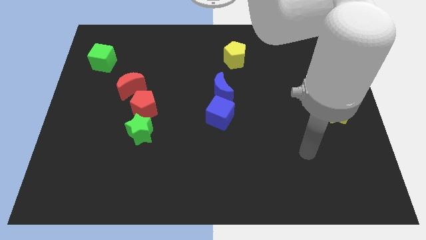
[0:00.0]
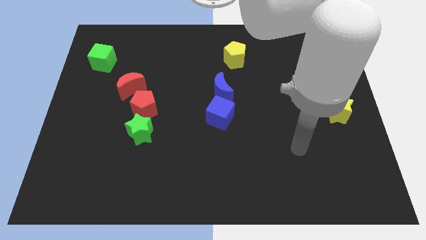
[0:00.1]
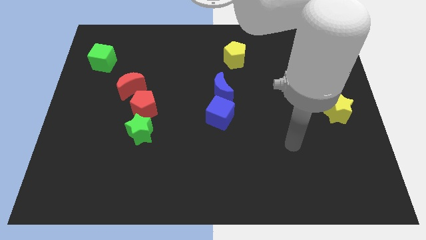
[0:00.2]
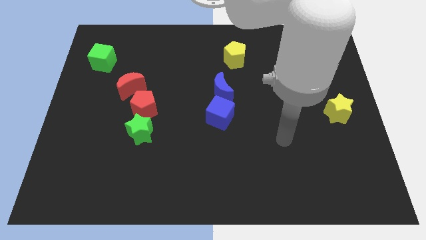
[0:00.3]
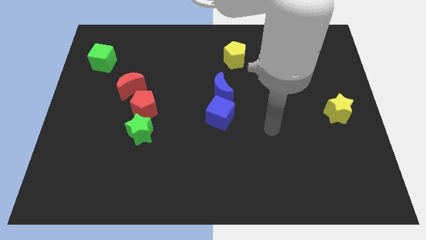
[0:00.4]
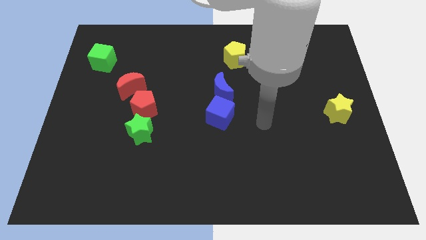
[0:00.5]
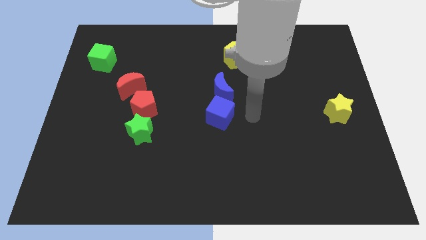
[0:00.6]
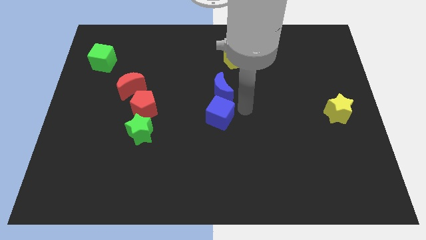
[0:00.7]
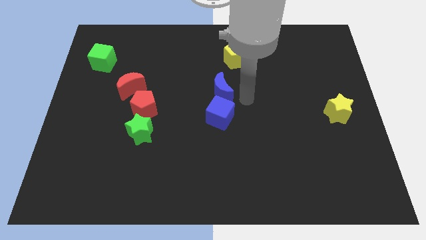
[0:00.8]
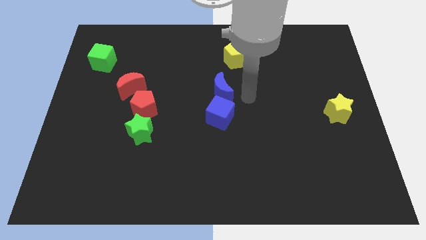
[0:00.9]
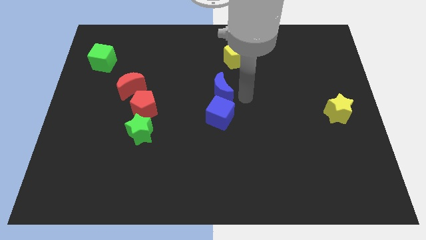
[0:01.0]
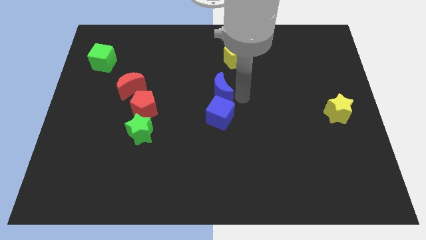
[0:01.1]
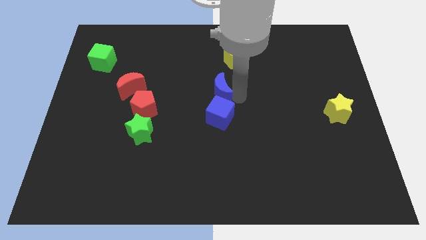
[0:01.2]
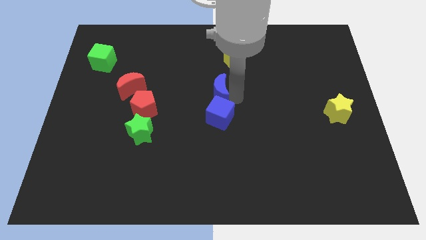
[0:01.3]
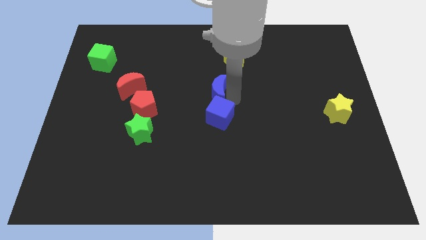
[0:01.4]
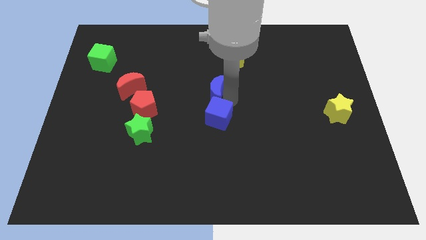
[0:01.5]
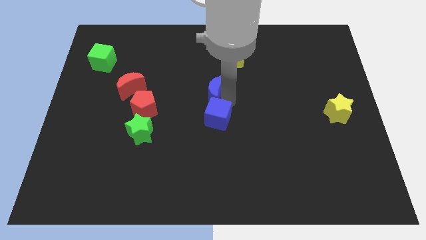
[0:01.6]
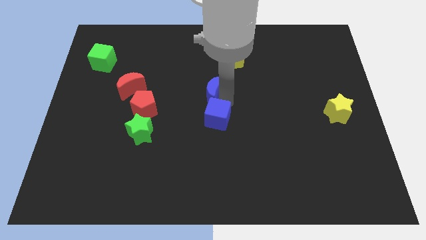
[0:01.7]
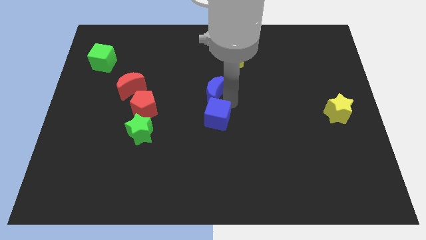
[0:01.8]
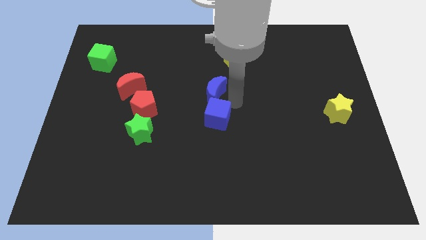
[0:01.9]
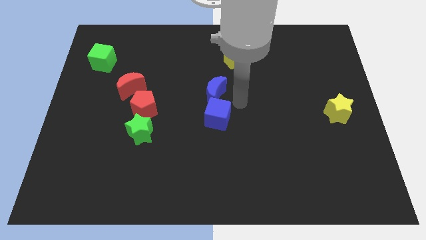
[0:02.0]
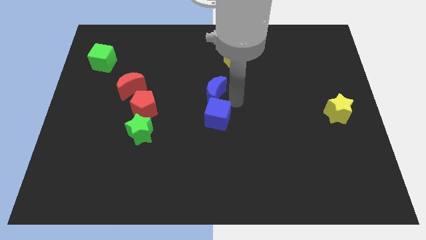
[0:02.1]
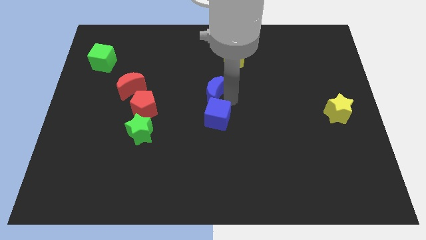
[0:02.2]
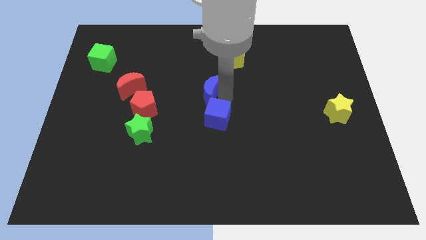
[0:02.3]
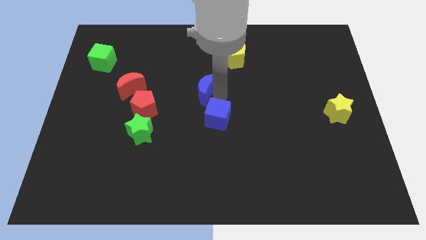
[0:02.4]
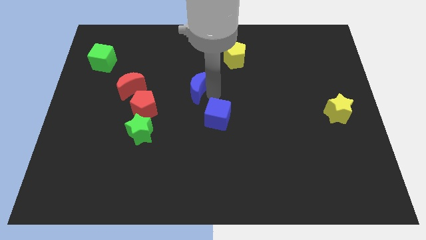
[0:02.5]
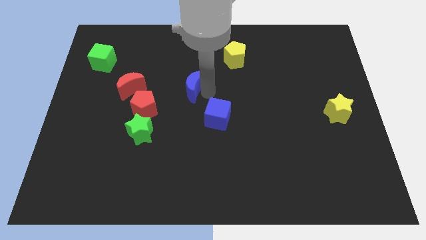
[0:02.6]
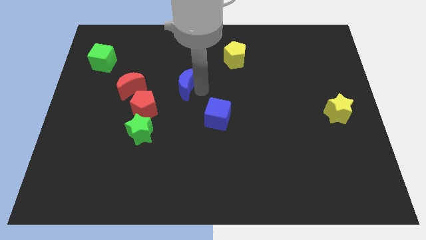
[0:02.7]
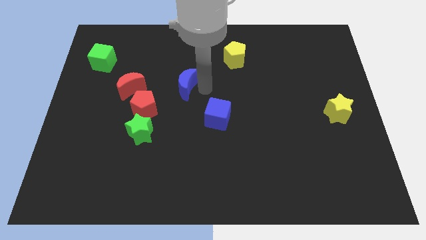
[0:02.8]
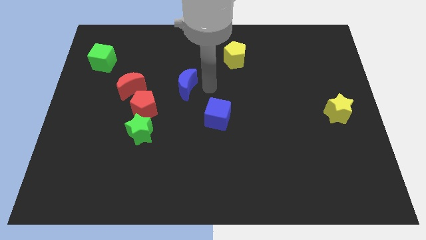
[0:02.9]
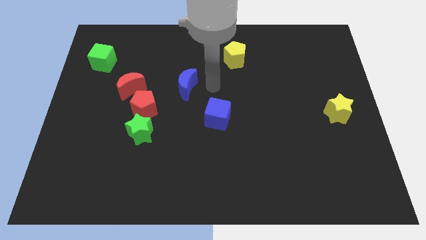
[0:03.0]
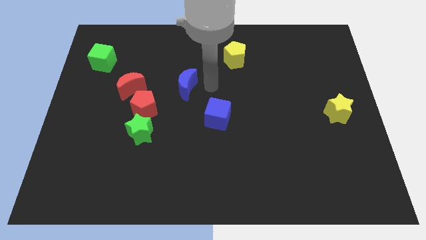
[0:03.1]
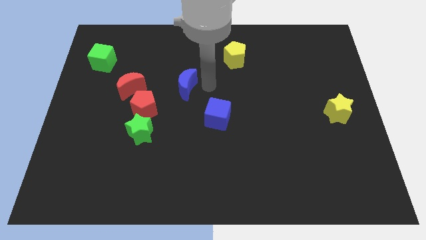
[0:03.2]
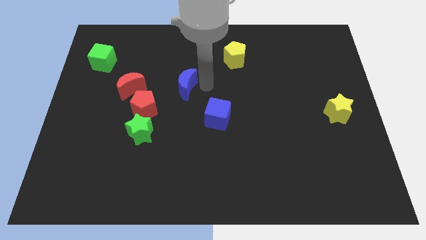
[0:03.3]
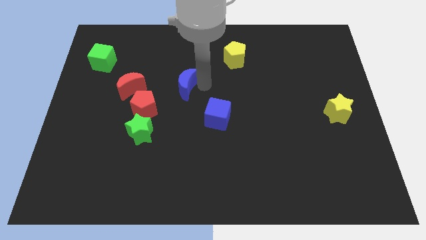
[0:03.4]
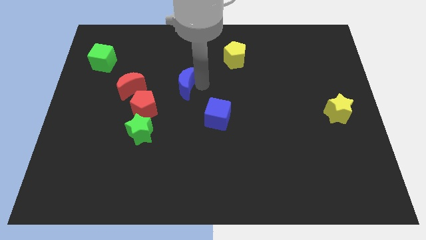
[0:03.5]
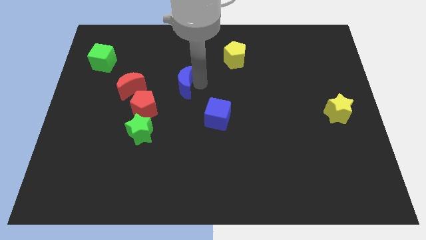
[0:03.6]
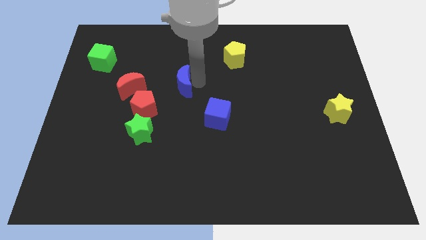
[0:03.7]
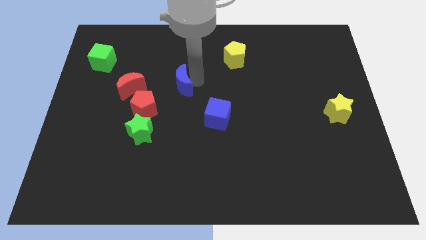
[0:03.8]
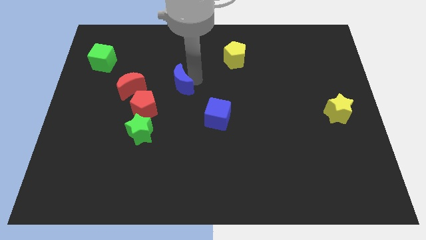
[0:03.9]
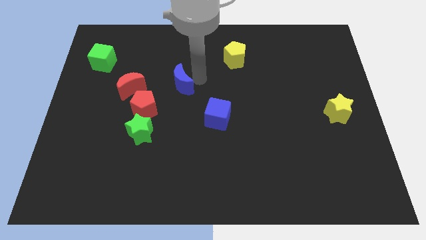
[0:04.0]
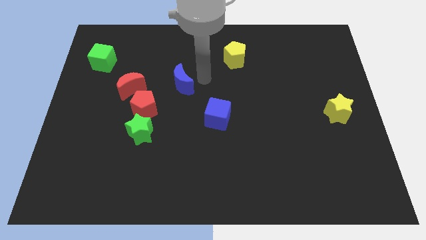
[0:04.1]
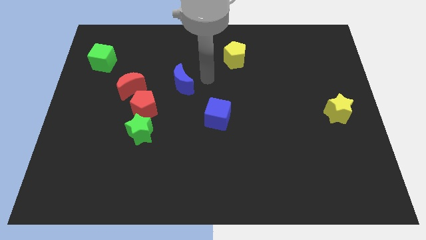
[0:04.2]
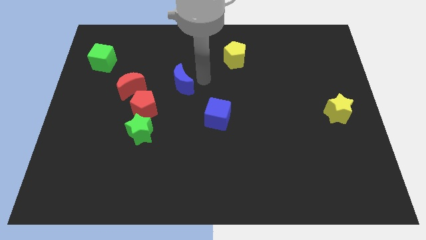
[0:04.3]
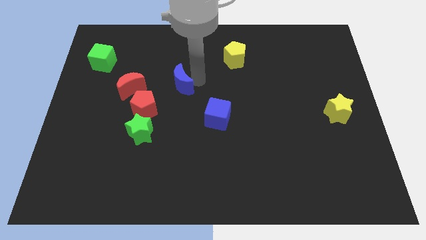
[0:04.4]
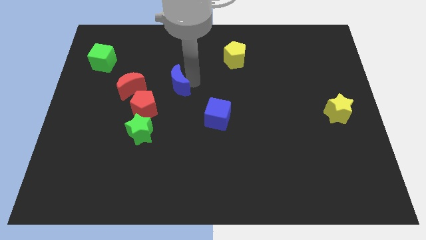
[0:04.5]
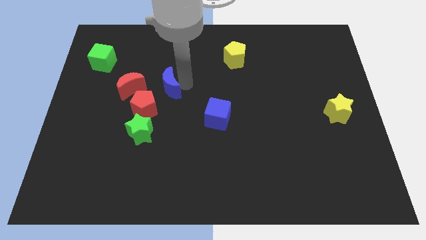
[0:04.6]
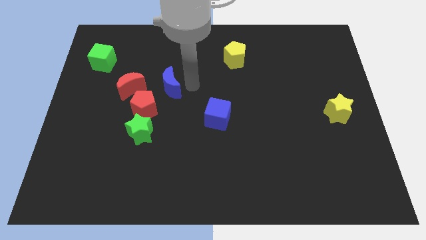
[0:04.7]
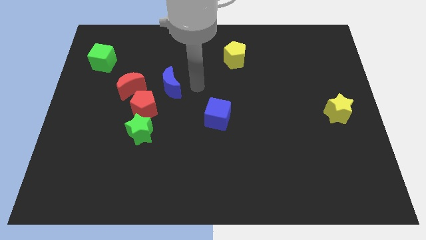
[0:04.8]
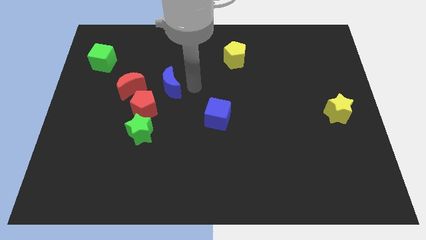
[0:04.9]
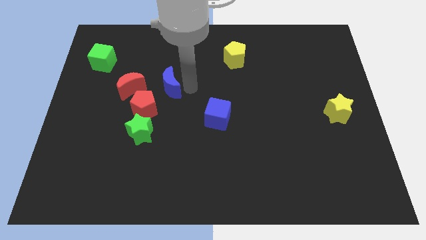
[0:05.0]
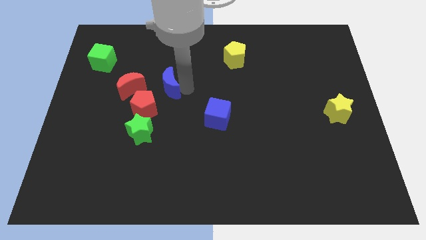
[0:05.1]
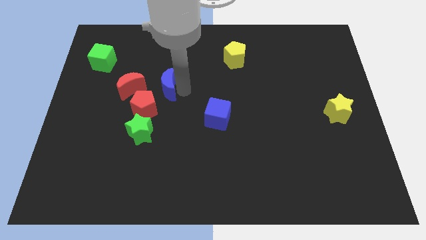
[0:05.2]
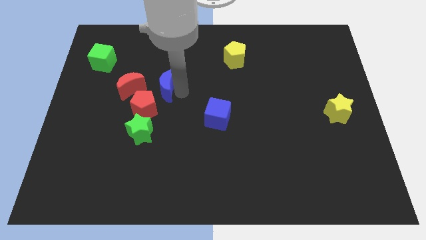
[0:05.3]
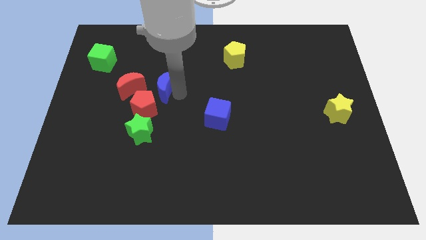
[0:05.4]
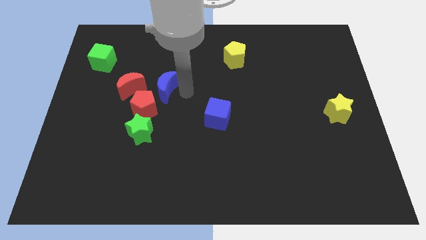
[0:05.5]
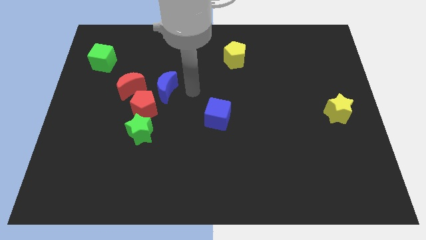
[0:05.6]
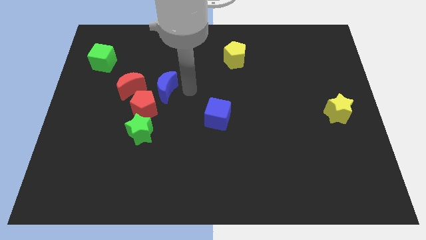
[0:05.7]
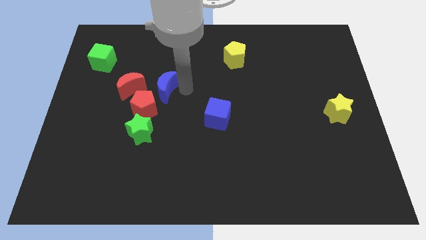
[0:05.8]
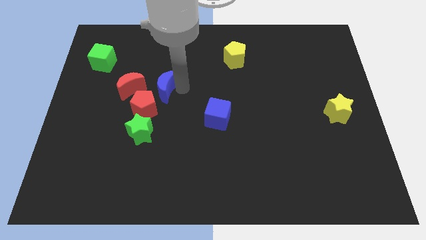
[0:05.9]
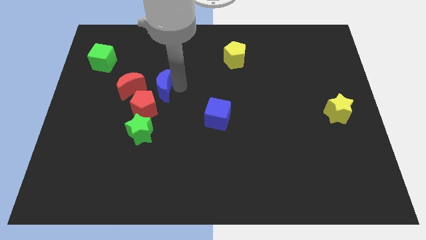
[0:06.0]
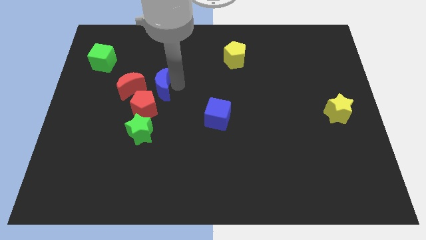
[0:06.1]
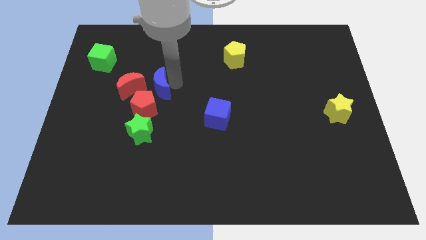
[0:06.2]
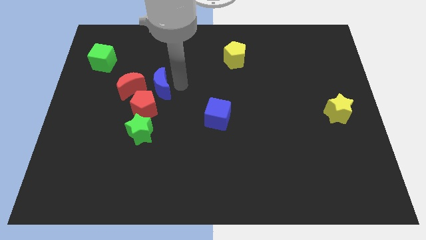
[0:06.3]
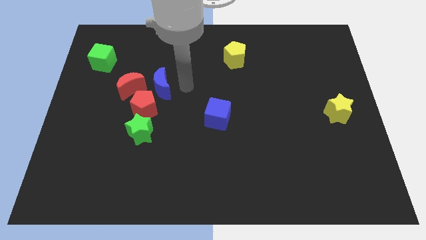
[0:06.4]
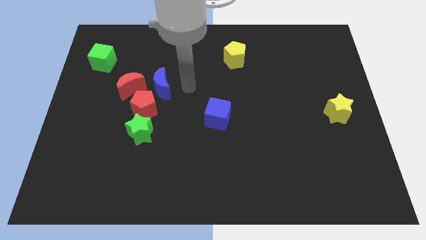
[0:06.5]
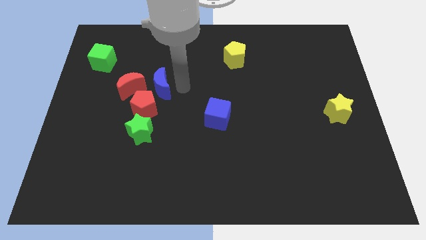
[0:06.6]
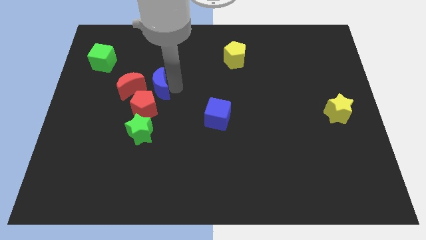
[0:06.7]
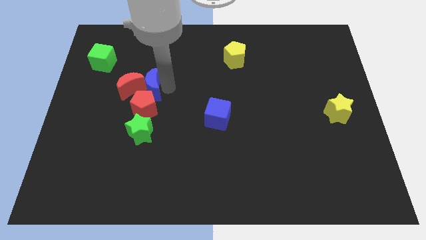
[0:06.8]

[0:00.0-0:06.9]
move the blue moon to the red moon

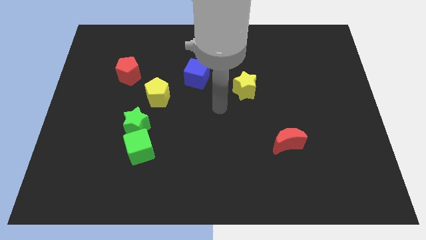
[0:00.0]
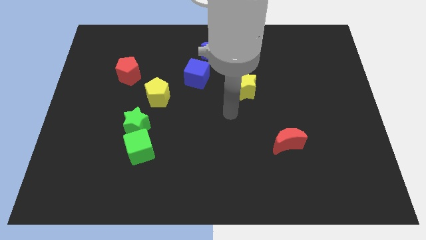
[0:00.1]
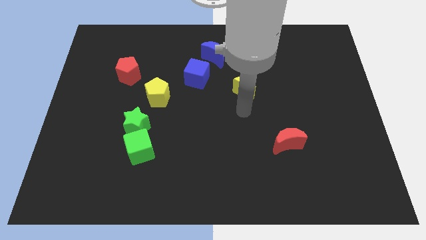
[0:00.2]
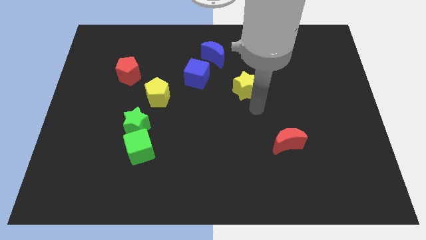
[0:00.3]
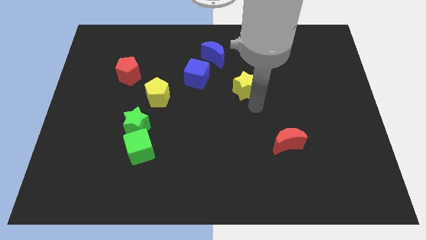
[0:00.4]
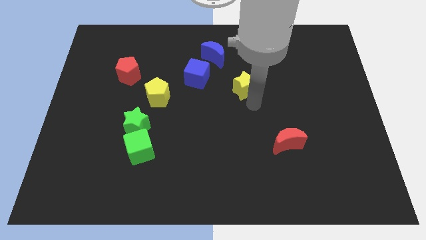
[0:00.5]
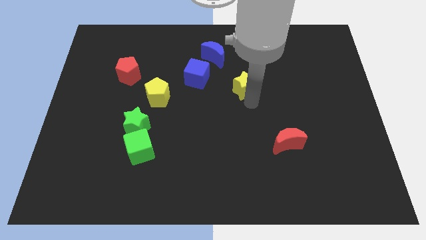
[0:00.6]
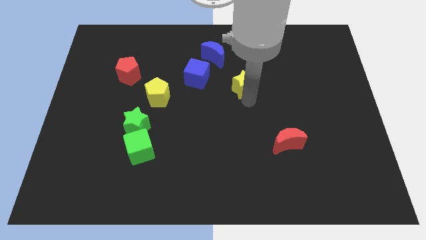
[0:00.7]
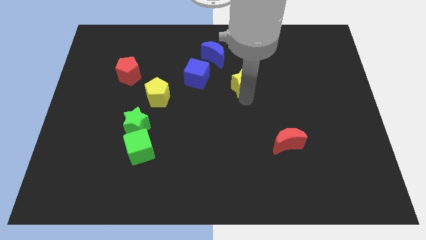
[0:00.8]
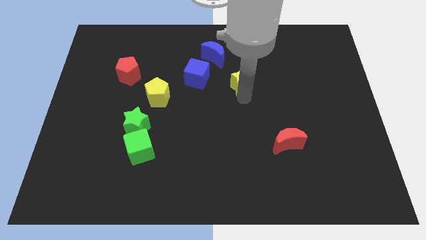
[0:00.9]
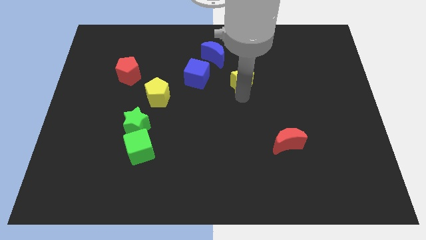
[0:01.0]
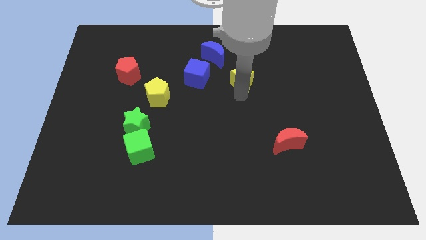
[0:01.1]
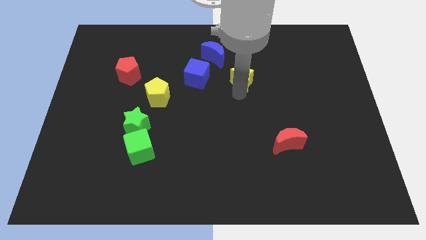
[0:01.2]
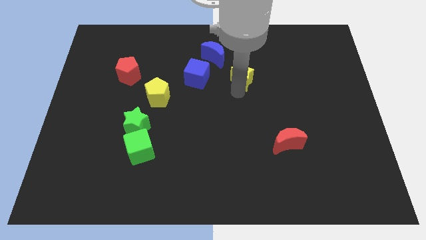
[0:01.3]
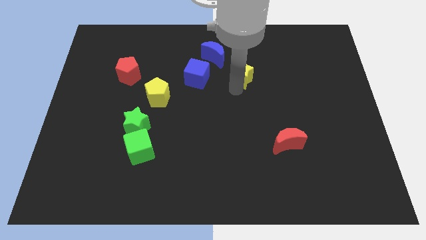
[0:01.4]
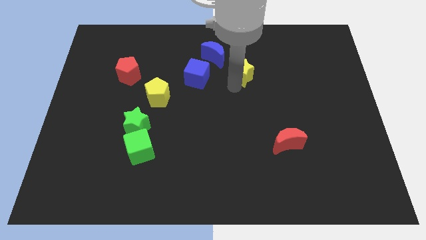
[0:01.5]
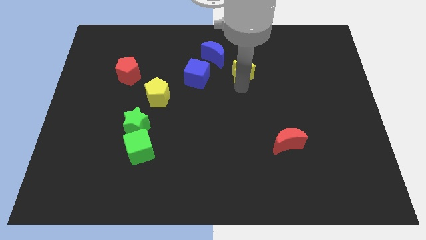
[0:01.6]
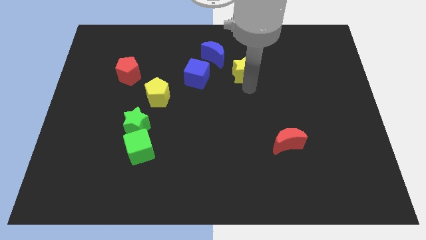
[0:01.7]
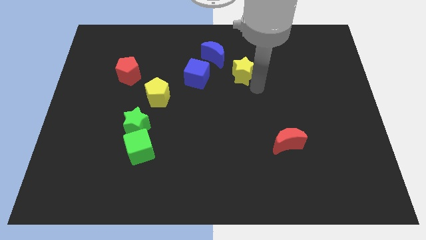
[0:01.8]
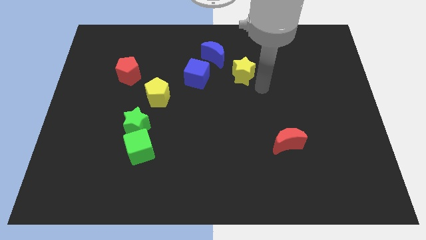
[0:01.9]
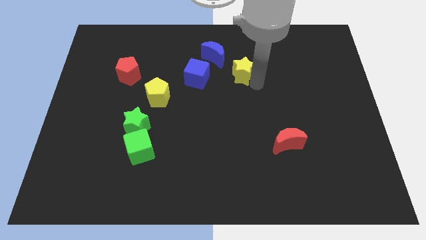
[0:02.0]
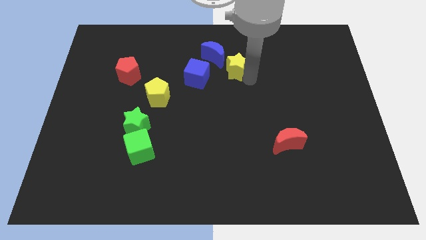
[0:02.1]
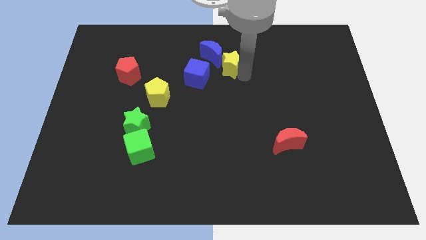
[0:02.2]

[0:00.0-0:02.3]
slide the yellow star towards the blue moon
